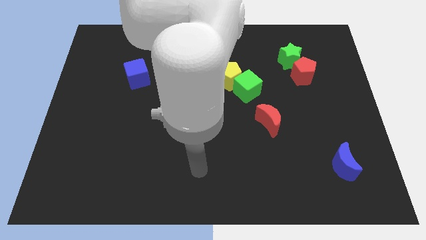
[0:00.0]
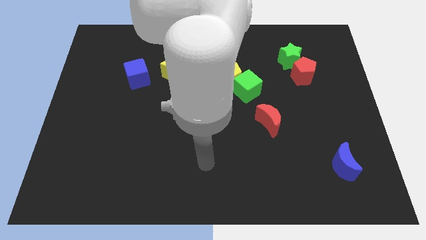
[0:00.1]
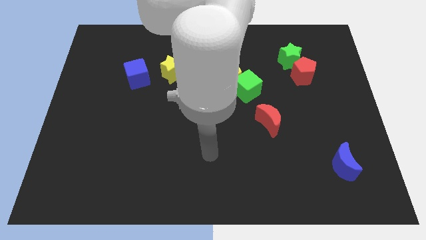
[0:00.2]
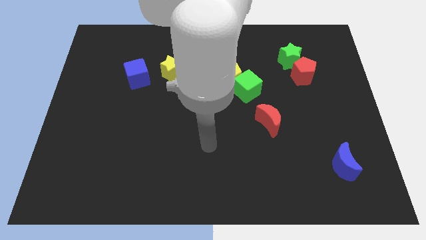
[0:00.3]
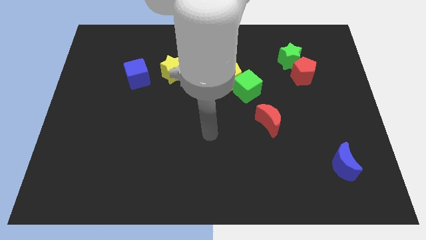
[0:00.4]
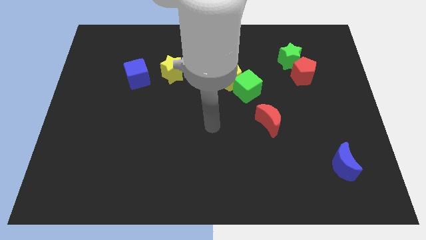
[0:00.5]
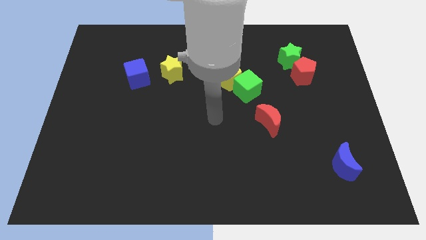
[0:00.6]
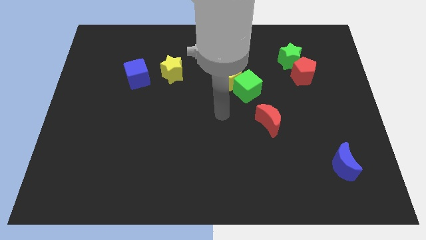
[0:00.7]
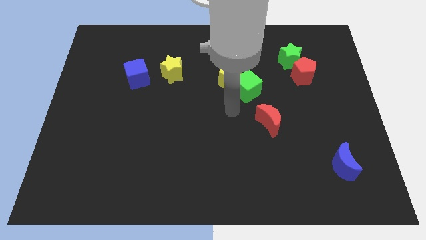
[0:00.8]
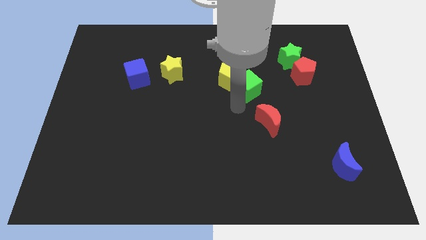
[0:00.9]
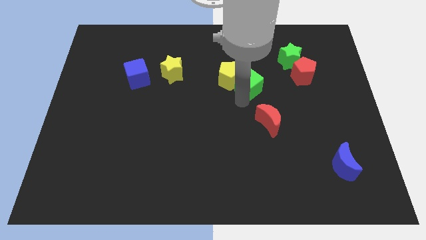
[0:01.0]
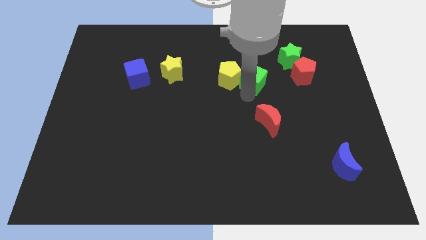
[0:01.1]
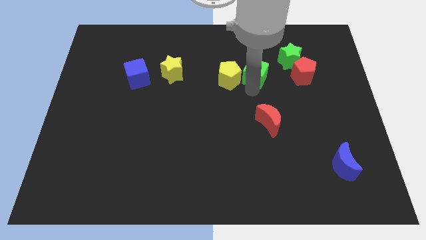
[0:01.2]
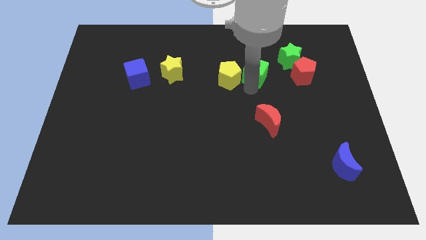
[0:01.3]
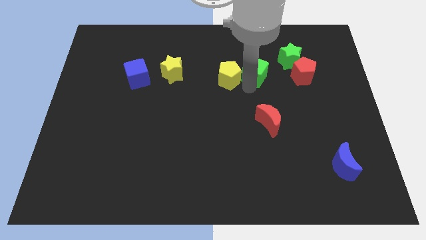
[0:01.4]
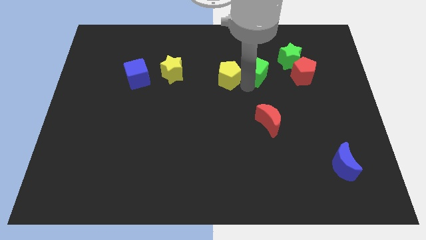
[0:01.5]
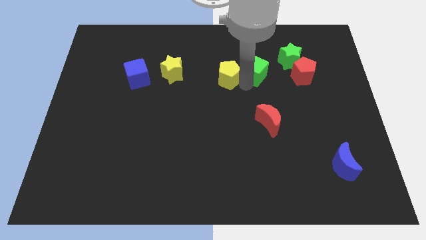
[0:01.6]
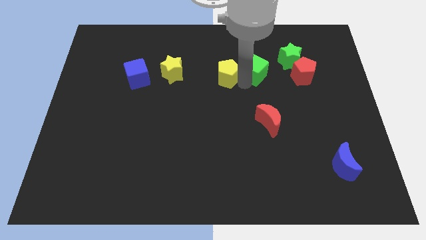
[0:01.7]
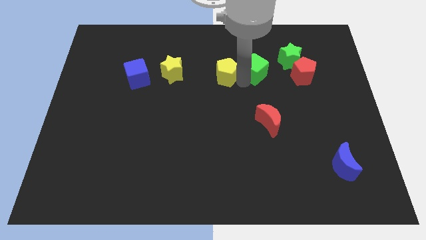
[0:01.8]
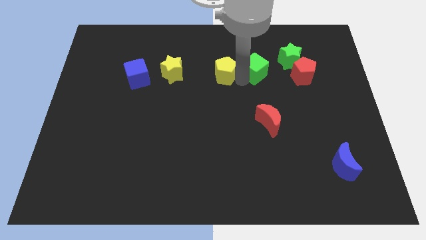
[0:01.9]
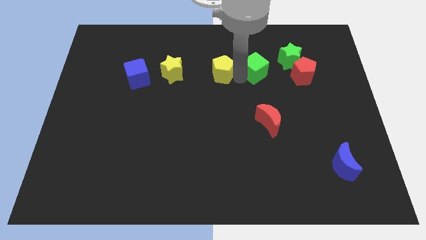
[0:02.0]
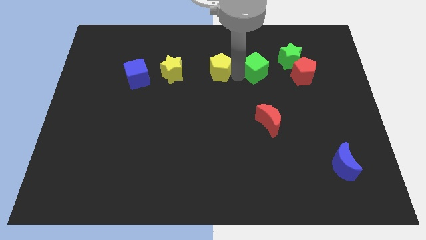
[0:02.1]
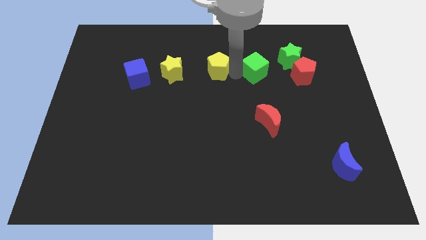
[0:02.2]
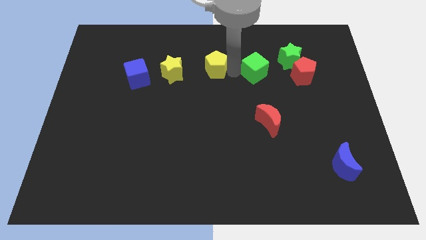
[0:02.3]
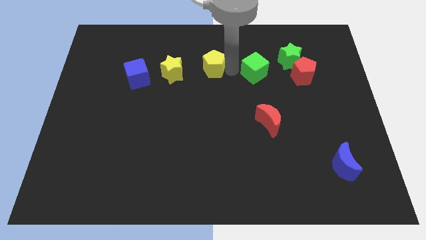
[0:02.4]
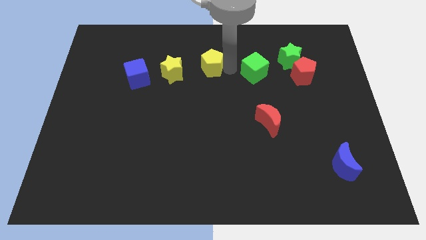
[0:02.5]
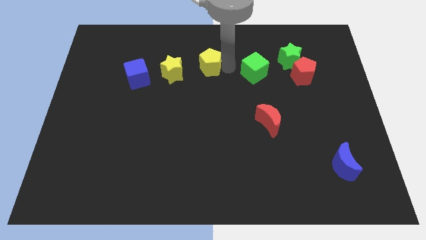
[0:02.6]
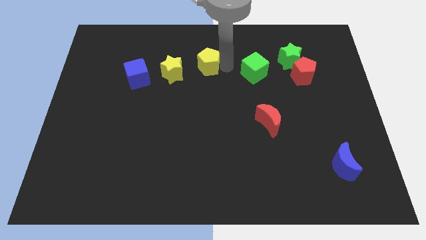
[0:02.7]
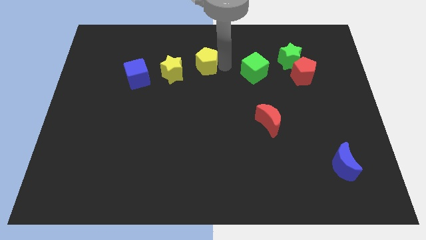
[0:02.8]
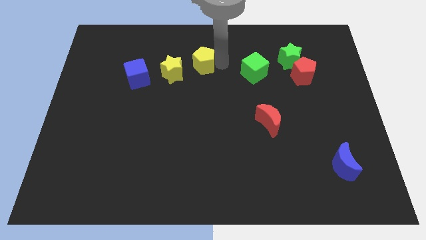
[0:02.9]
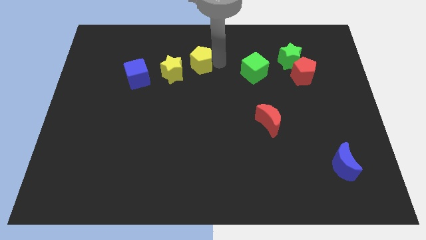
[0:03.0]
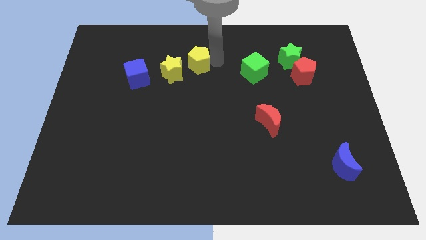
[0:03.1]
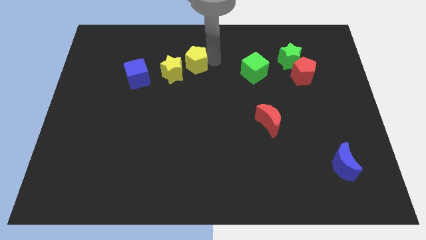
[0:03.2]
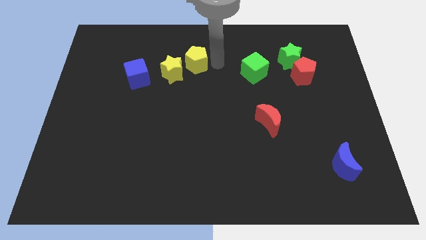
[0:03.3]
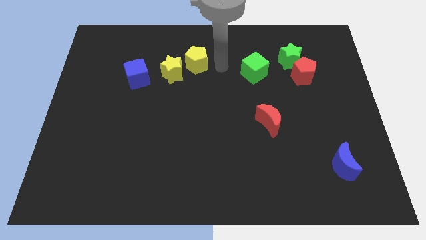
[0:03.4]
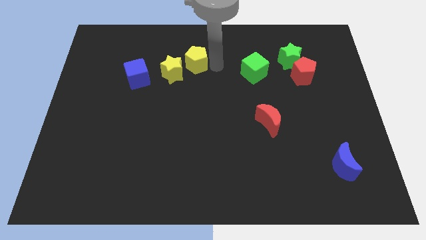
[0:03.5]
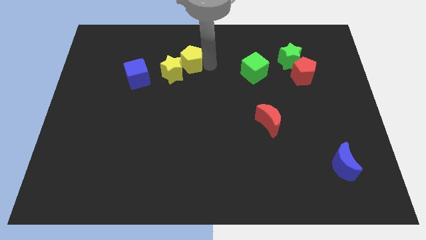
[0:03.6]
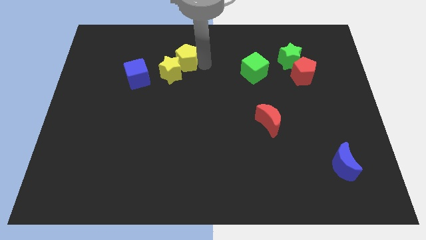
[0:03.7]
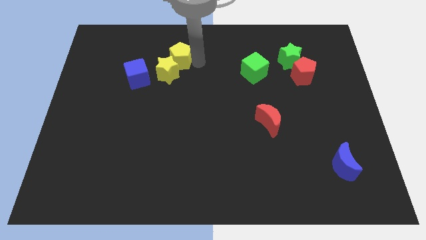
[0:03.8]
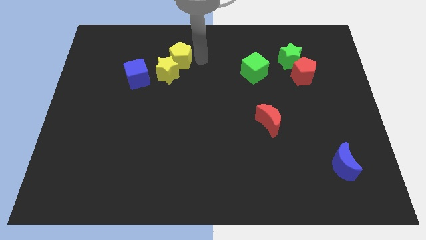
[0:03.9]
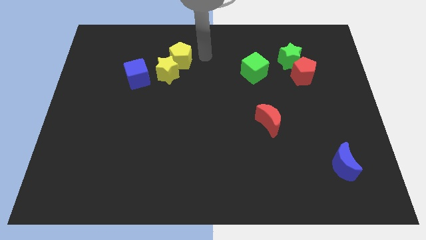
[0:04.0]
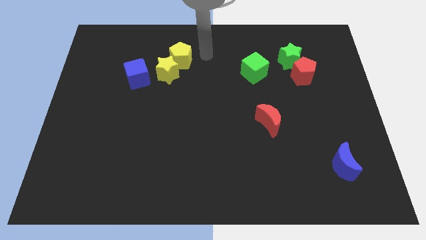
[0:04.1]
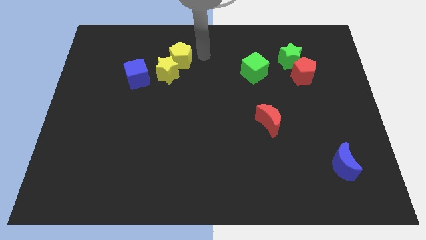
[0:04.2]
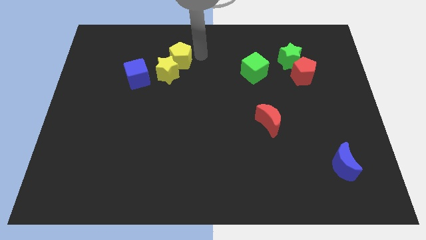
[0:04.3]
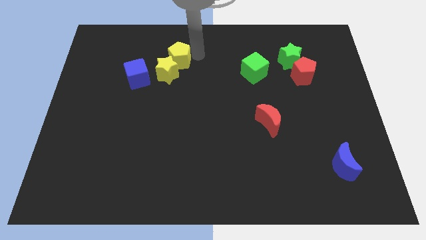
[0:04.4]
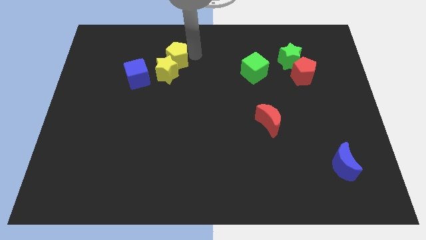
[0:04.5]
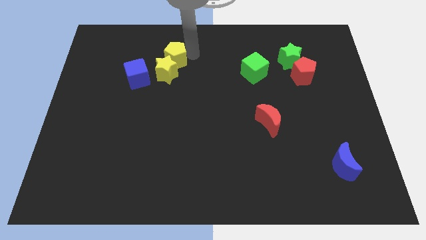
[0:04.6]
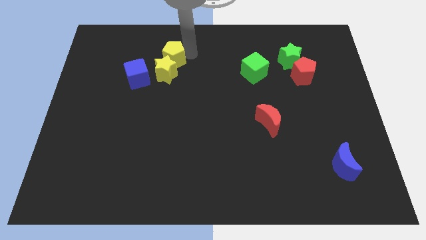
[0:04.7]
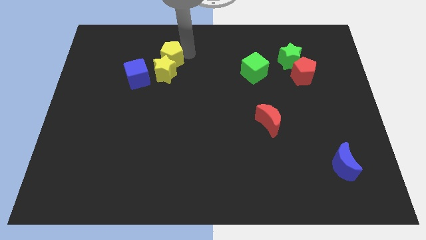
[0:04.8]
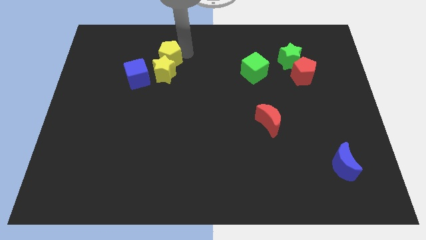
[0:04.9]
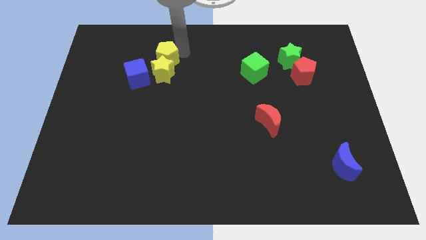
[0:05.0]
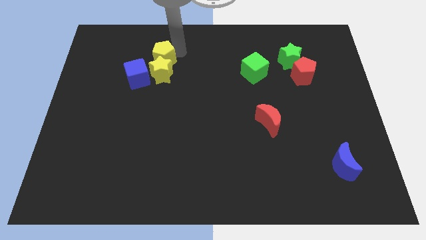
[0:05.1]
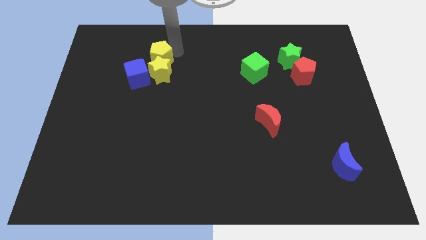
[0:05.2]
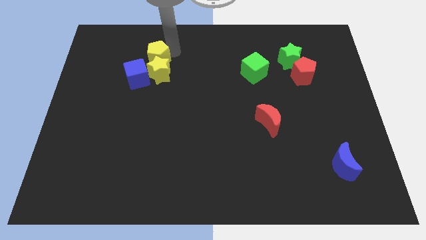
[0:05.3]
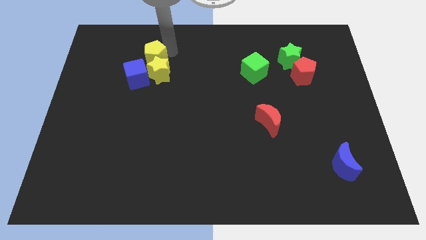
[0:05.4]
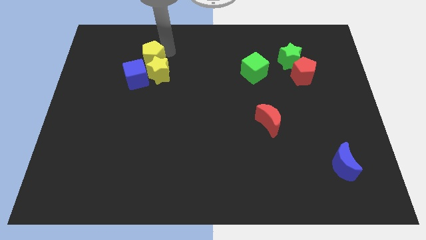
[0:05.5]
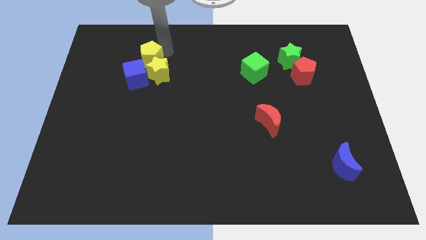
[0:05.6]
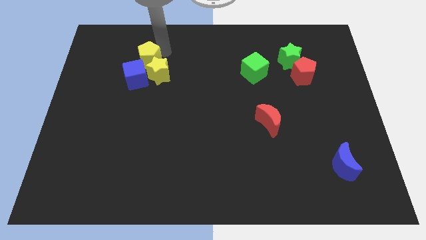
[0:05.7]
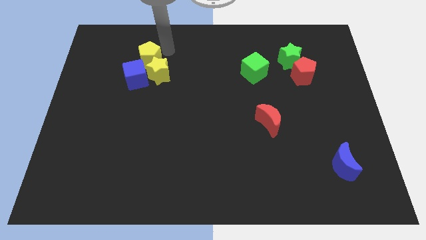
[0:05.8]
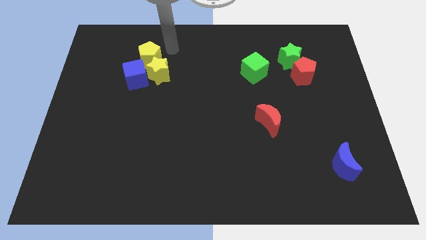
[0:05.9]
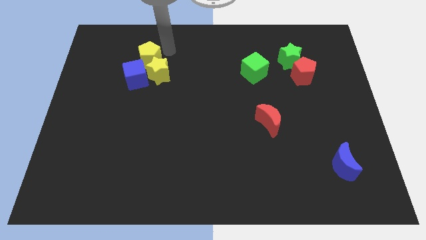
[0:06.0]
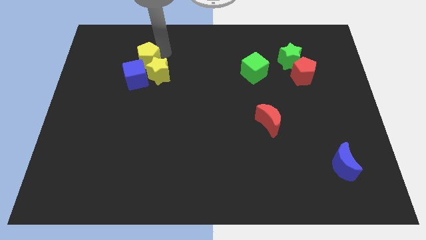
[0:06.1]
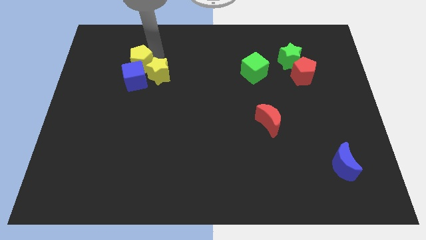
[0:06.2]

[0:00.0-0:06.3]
push the yellow pentagon to the left of the yellow star

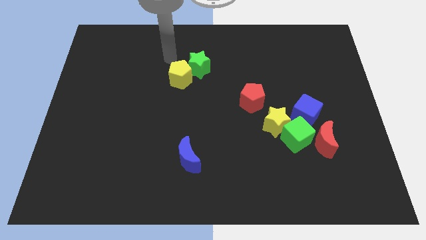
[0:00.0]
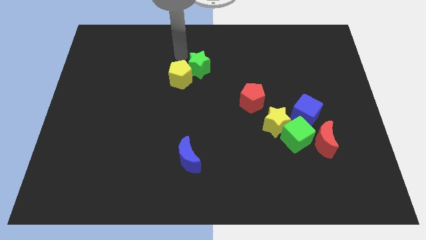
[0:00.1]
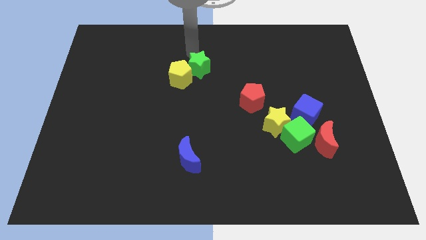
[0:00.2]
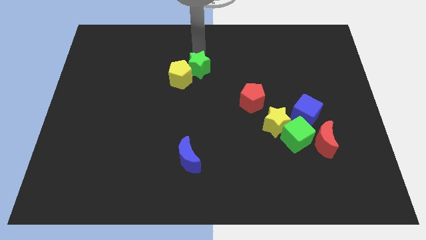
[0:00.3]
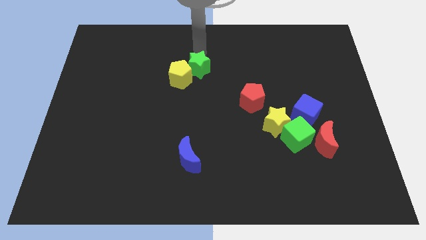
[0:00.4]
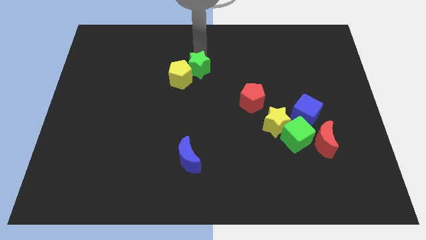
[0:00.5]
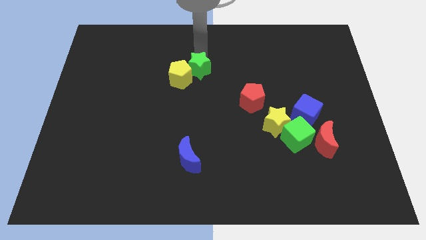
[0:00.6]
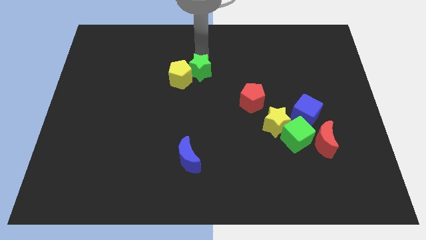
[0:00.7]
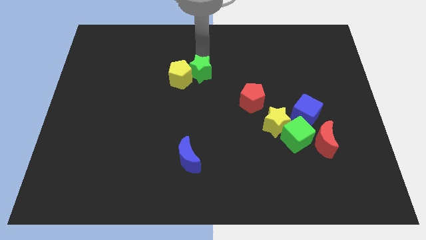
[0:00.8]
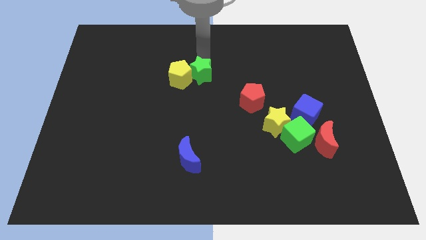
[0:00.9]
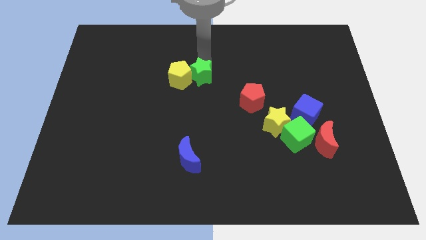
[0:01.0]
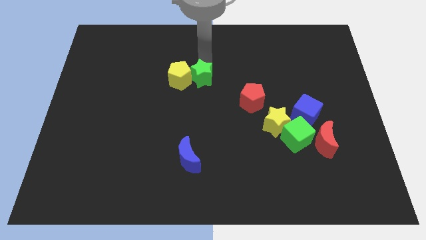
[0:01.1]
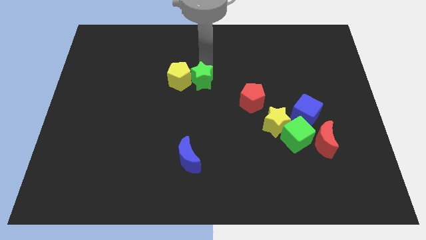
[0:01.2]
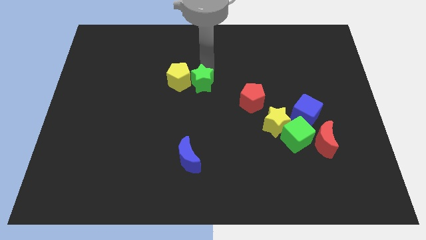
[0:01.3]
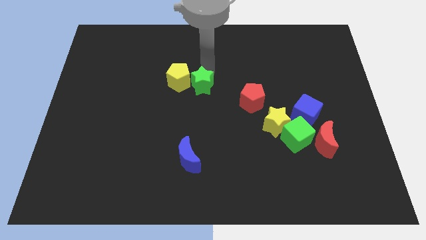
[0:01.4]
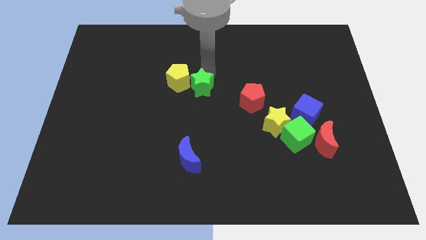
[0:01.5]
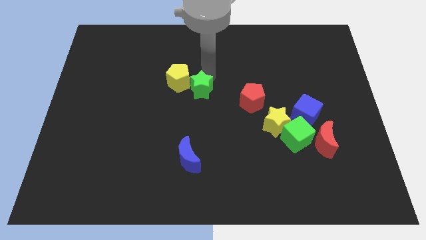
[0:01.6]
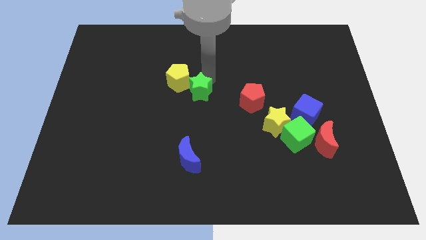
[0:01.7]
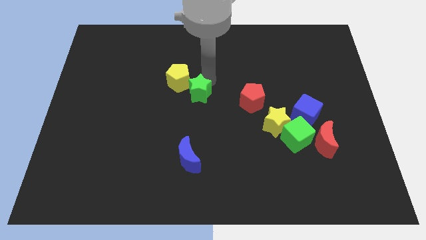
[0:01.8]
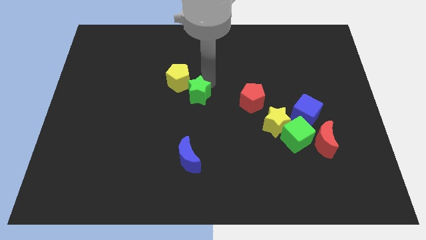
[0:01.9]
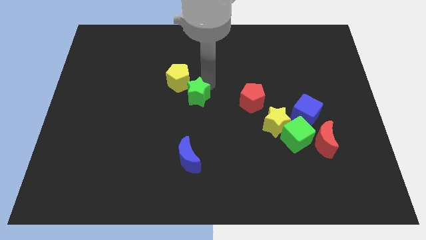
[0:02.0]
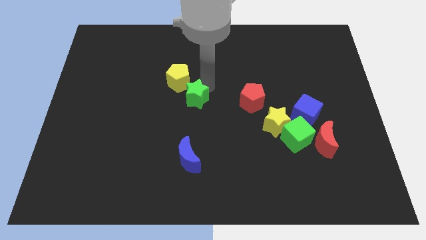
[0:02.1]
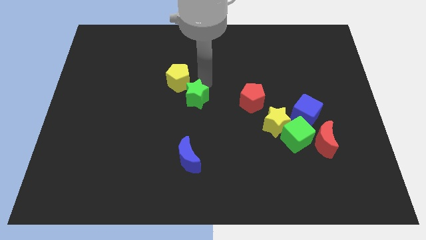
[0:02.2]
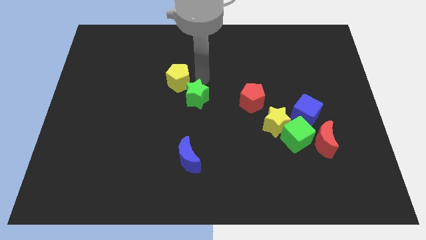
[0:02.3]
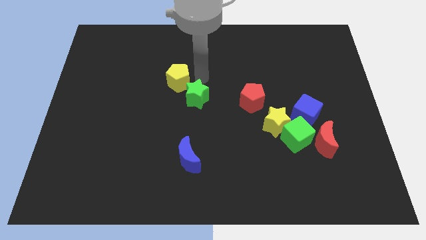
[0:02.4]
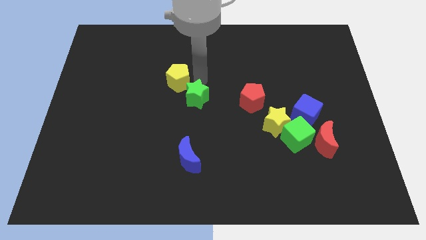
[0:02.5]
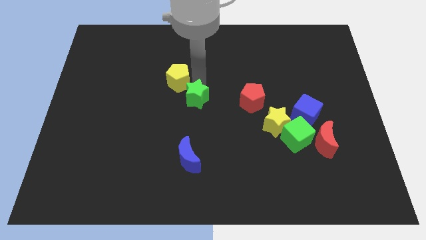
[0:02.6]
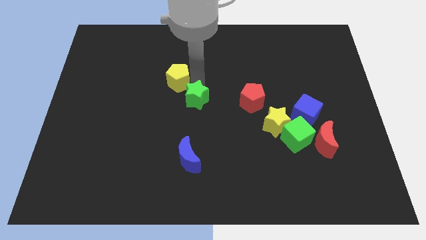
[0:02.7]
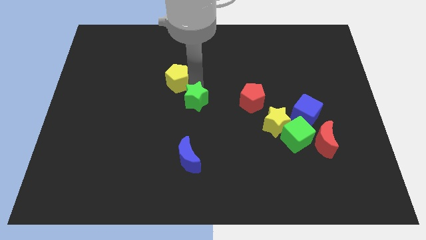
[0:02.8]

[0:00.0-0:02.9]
push the green star to the top side of the blue moon
